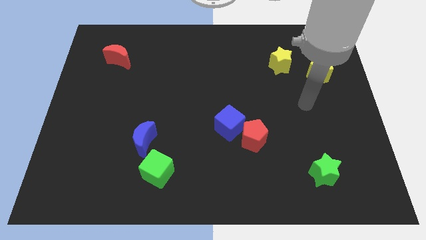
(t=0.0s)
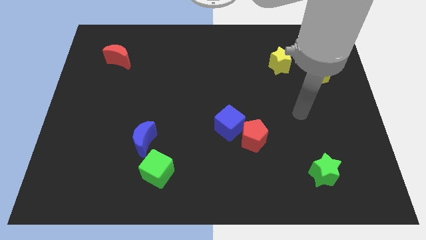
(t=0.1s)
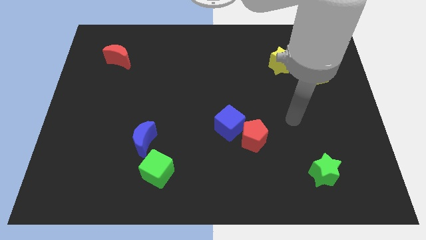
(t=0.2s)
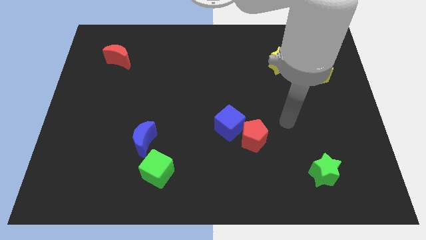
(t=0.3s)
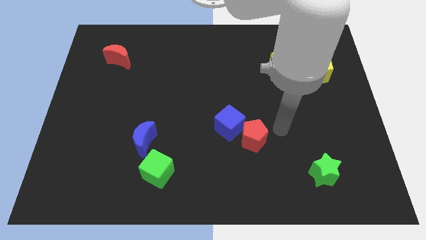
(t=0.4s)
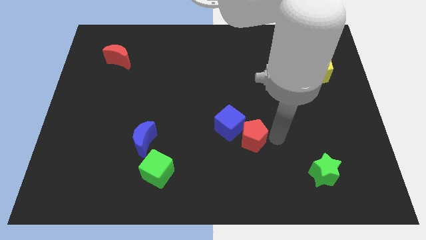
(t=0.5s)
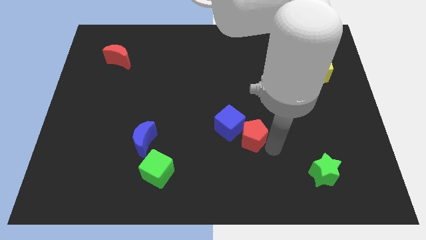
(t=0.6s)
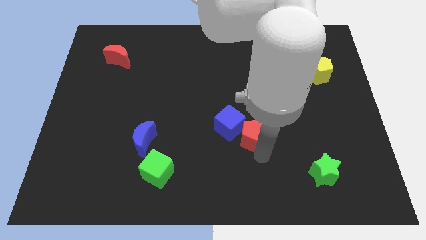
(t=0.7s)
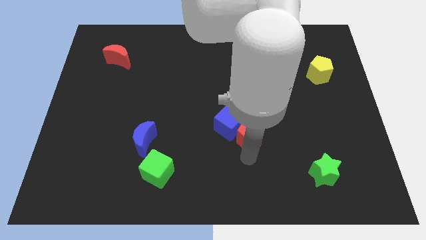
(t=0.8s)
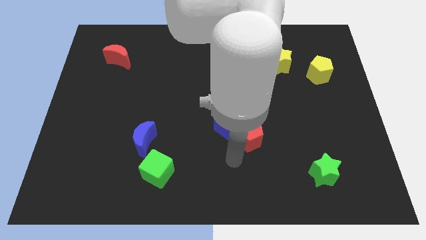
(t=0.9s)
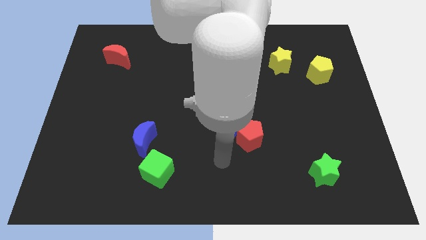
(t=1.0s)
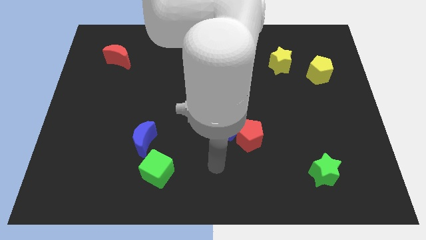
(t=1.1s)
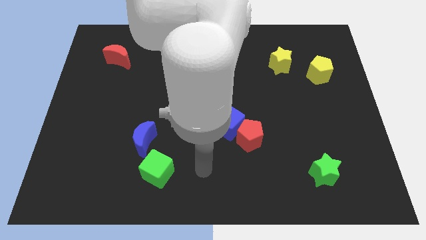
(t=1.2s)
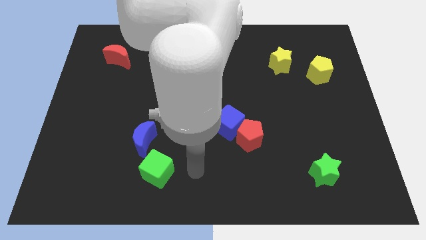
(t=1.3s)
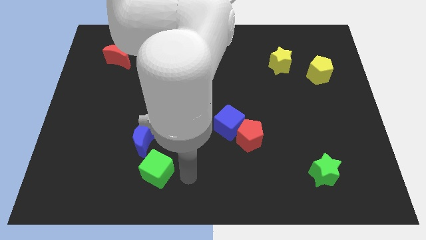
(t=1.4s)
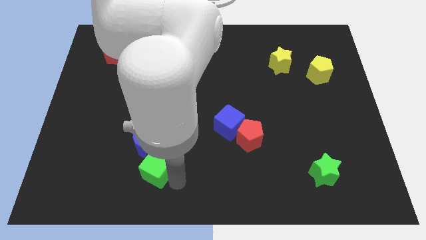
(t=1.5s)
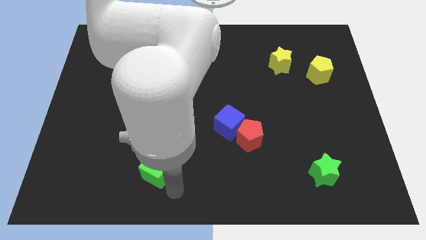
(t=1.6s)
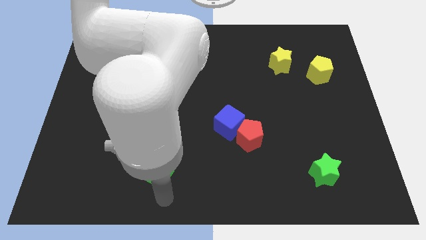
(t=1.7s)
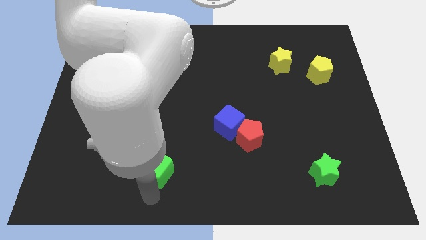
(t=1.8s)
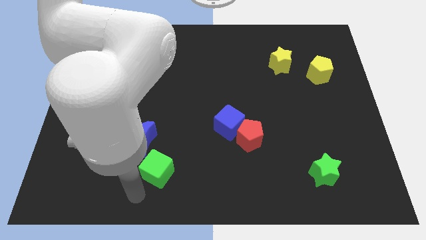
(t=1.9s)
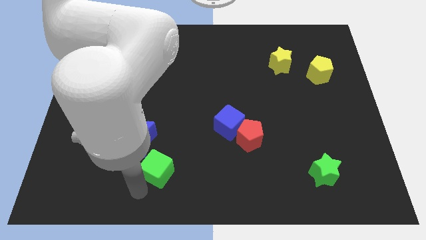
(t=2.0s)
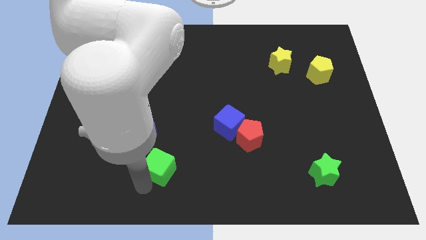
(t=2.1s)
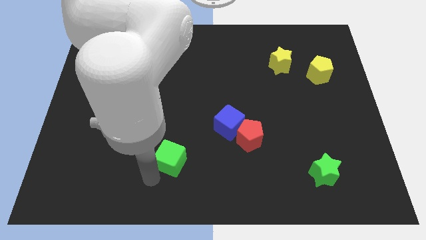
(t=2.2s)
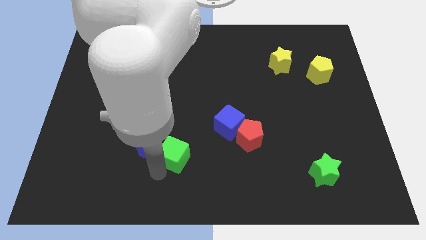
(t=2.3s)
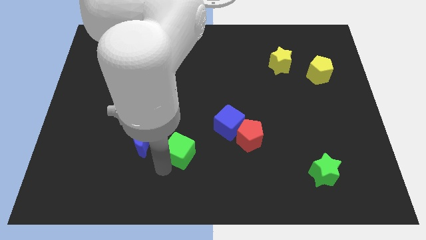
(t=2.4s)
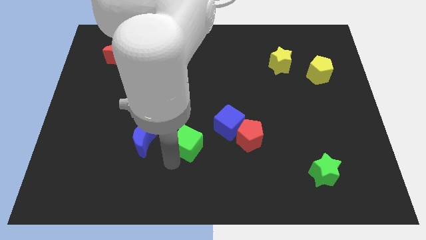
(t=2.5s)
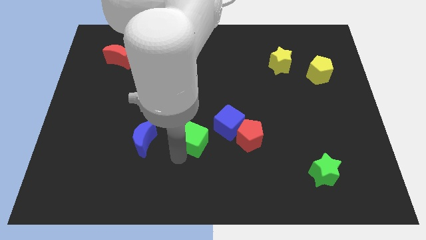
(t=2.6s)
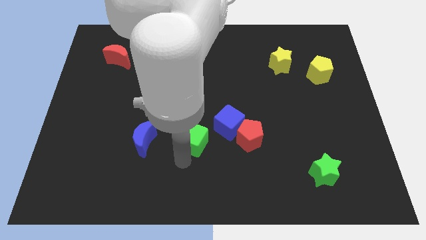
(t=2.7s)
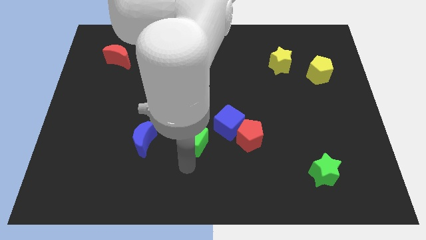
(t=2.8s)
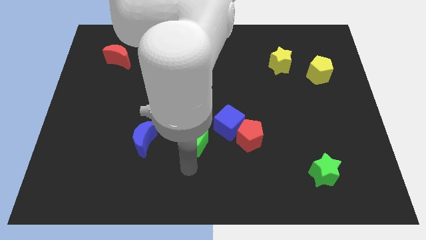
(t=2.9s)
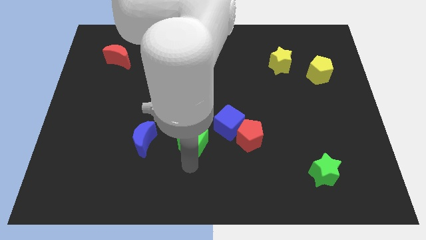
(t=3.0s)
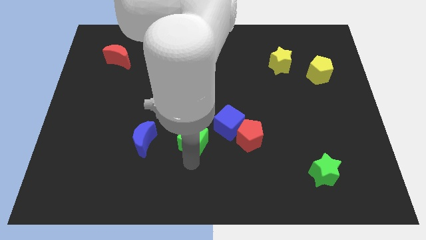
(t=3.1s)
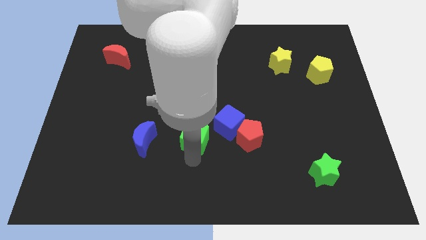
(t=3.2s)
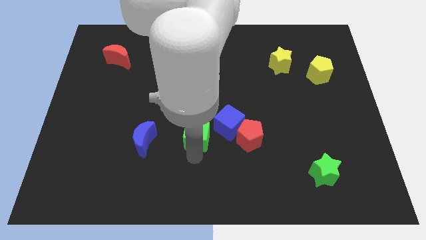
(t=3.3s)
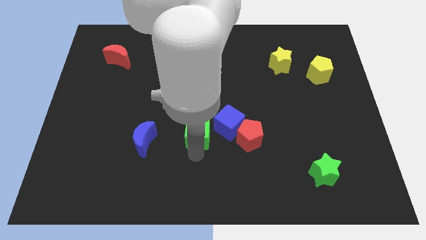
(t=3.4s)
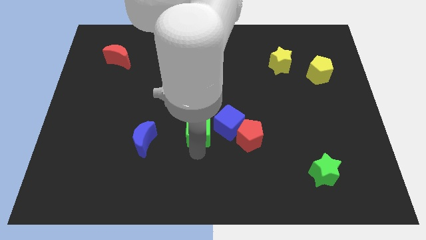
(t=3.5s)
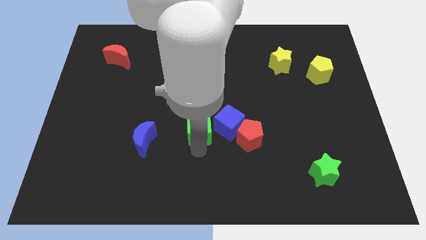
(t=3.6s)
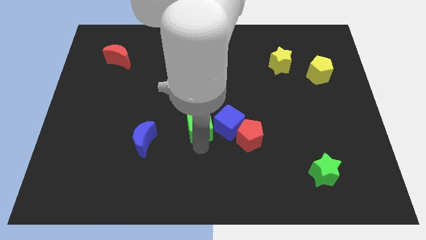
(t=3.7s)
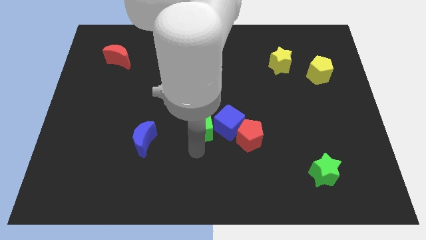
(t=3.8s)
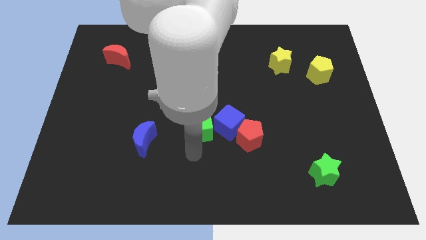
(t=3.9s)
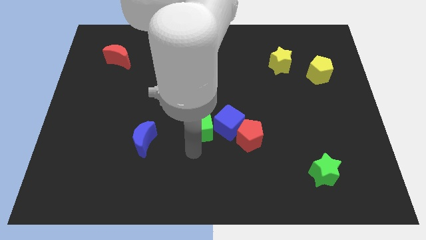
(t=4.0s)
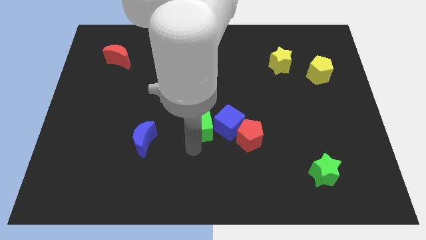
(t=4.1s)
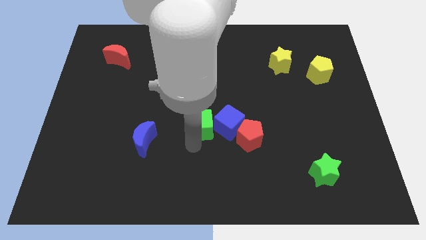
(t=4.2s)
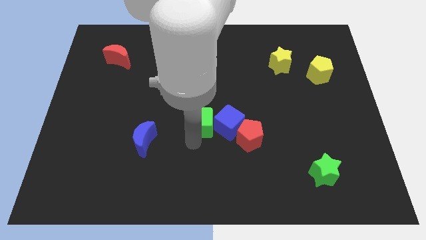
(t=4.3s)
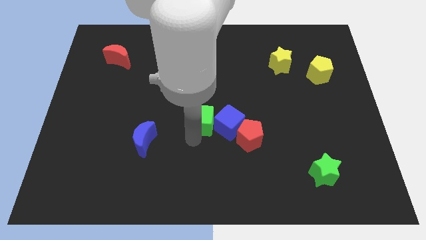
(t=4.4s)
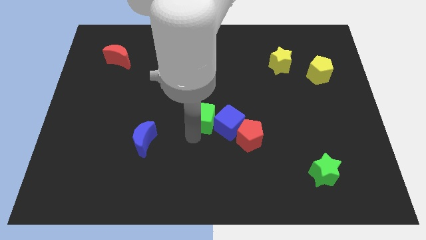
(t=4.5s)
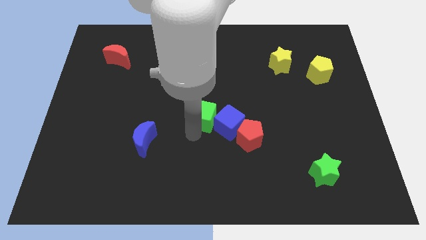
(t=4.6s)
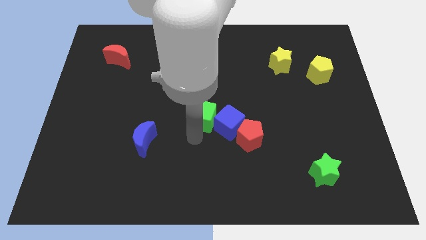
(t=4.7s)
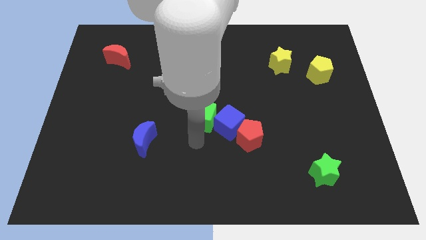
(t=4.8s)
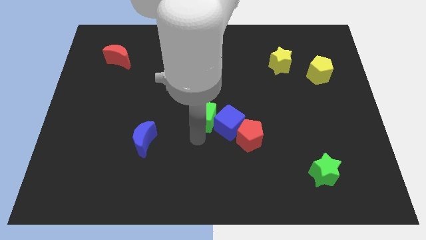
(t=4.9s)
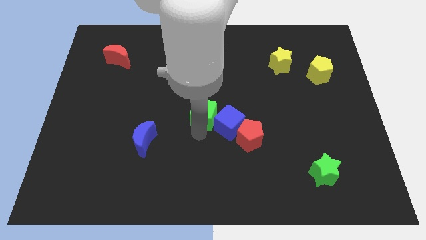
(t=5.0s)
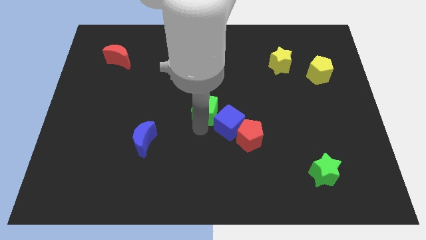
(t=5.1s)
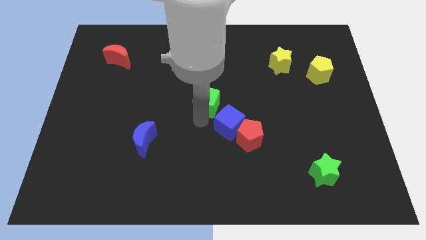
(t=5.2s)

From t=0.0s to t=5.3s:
put the green cube to the top side of the blue cube
